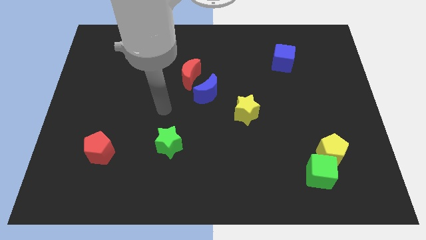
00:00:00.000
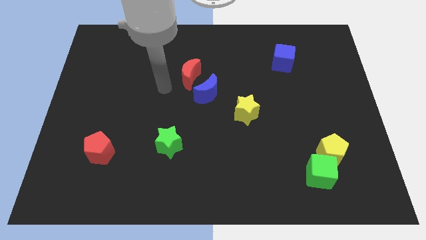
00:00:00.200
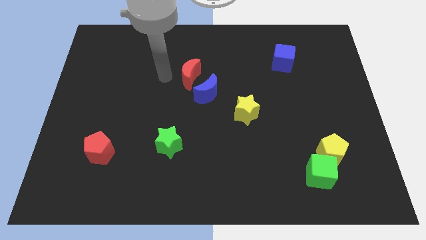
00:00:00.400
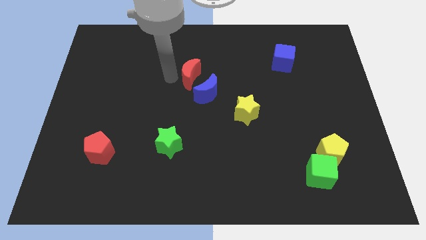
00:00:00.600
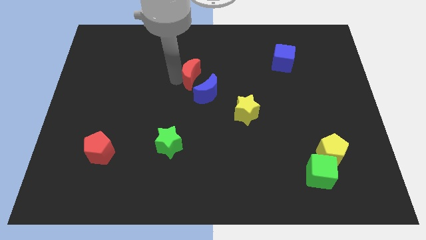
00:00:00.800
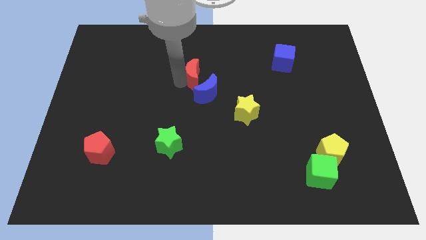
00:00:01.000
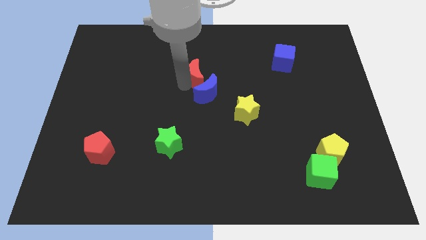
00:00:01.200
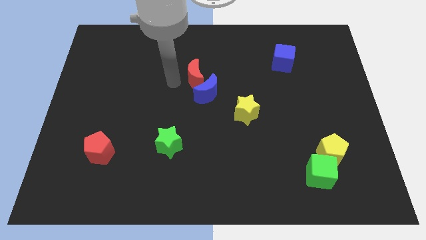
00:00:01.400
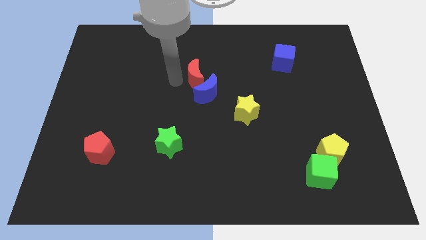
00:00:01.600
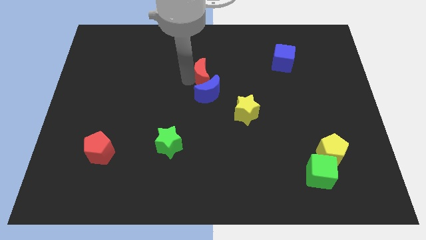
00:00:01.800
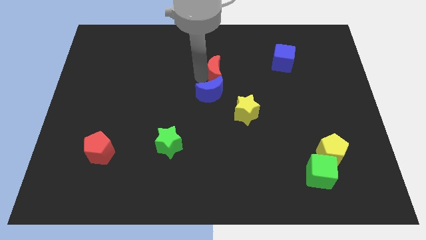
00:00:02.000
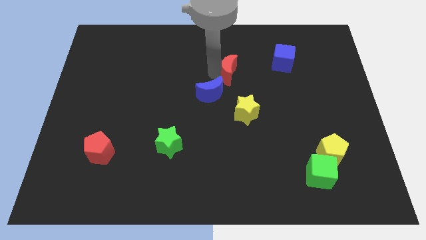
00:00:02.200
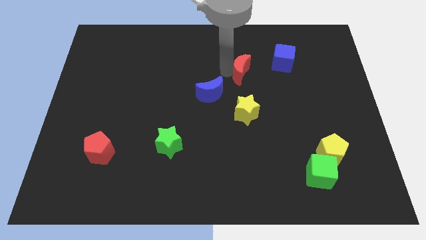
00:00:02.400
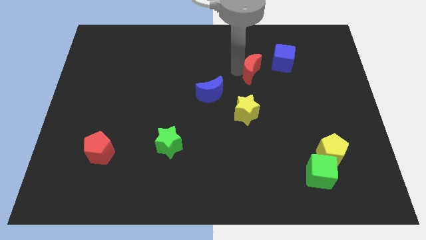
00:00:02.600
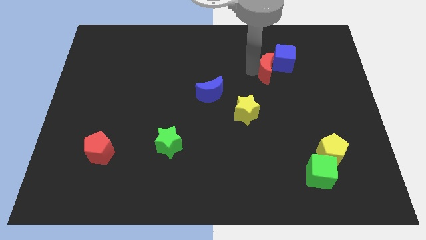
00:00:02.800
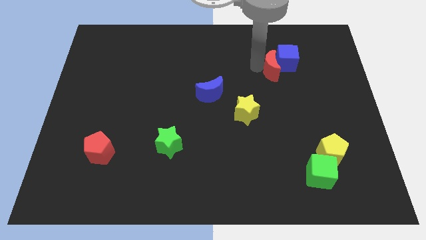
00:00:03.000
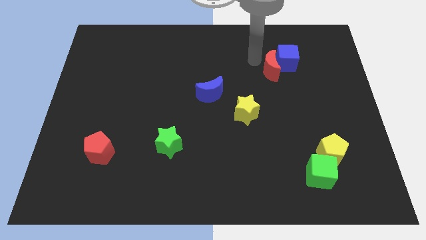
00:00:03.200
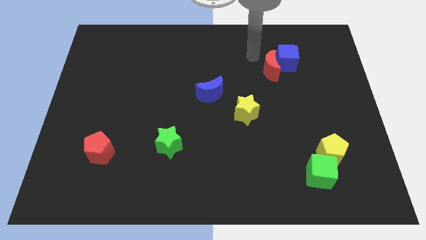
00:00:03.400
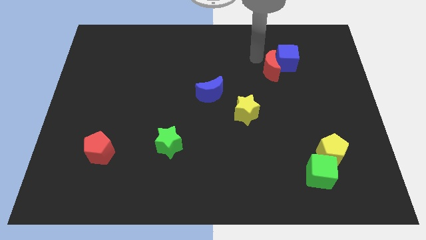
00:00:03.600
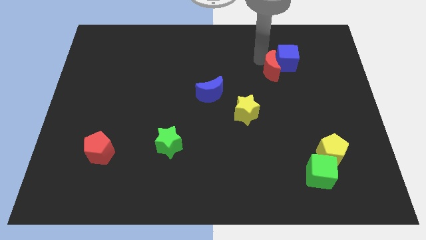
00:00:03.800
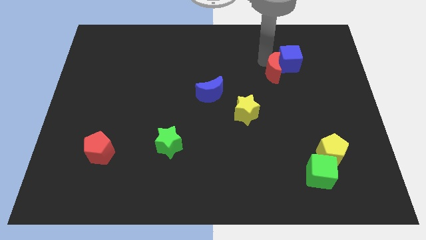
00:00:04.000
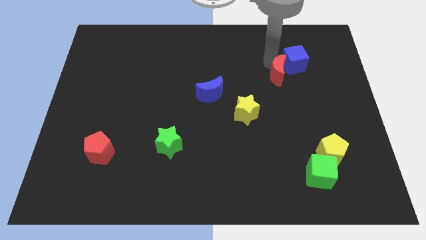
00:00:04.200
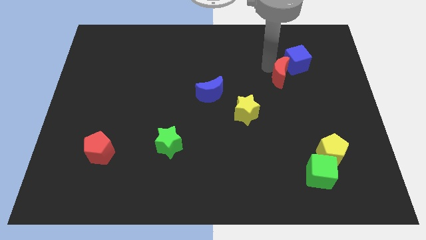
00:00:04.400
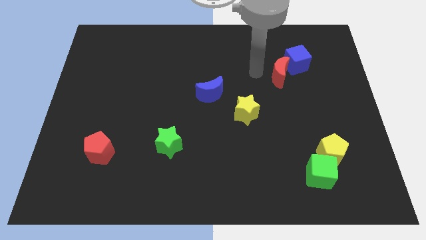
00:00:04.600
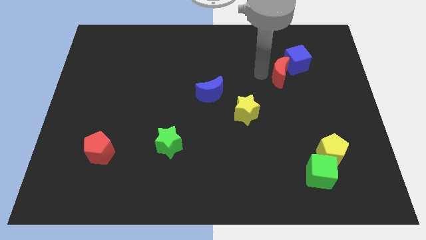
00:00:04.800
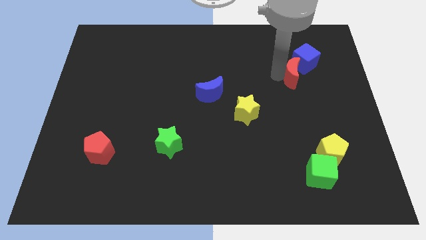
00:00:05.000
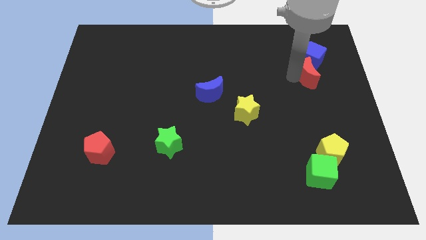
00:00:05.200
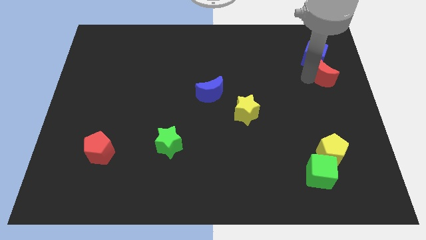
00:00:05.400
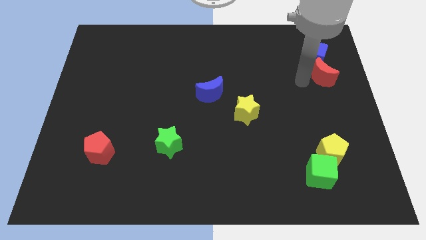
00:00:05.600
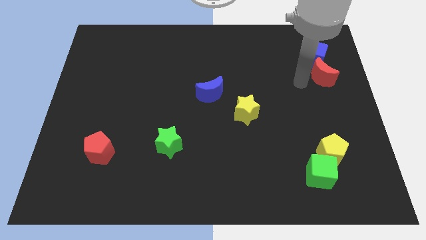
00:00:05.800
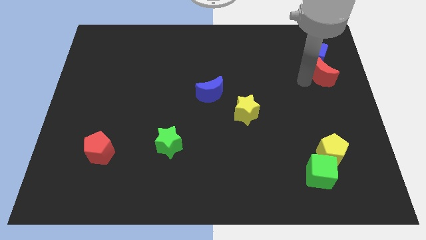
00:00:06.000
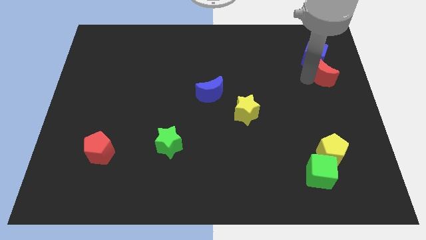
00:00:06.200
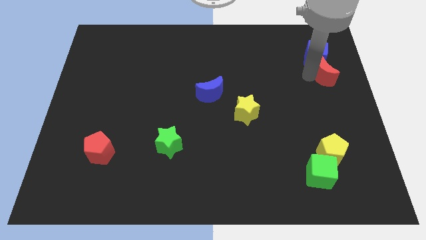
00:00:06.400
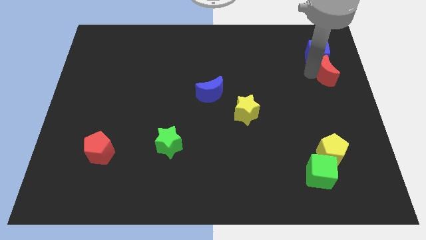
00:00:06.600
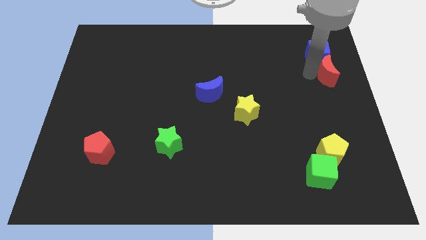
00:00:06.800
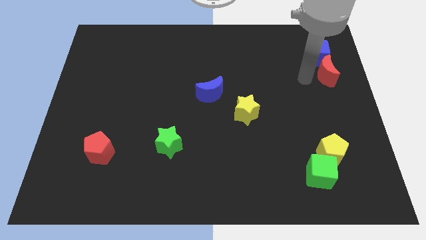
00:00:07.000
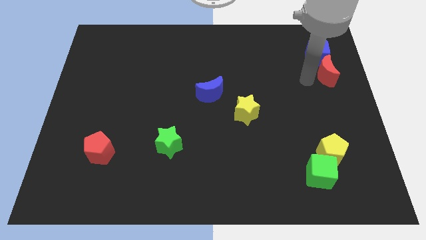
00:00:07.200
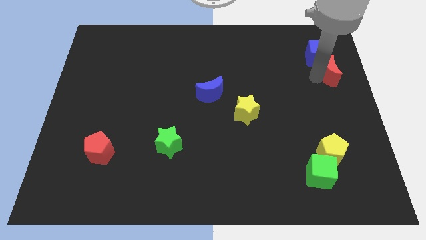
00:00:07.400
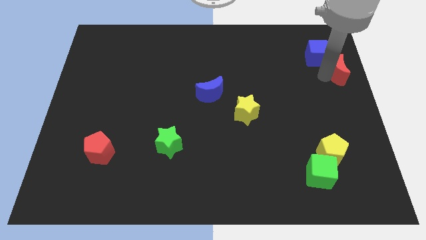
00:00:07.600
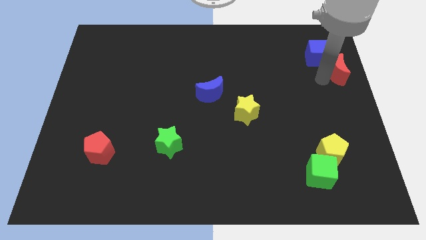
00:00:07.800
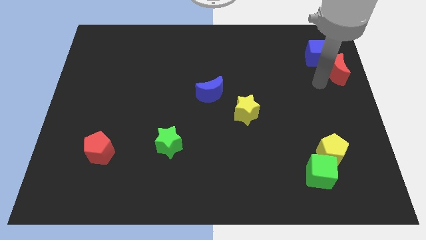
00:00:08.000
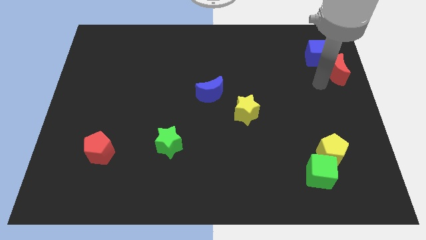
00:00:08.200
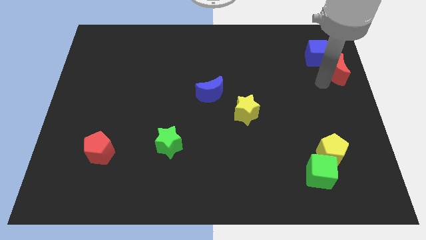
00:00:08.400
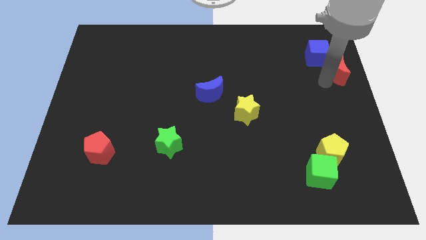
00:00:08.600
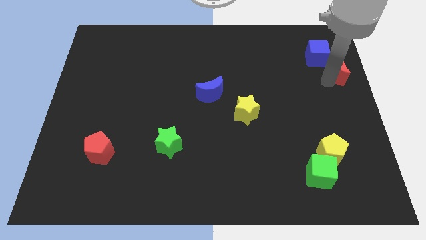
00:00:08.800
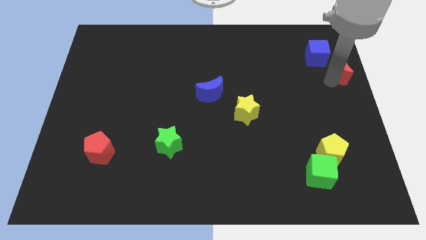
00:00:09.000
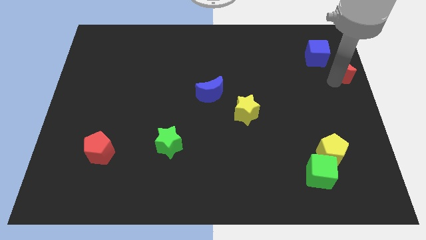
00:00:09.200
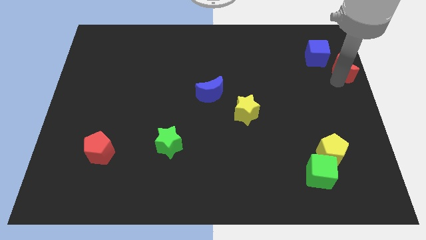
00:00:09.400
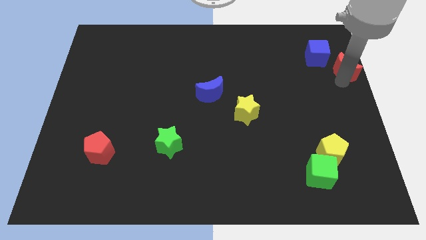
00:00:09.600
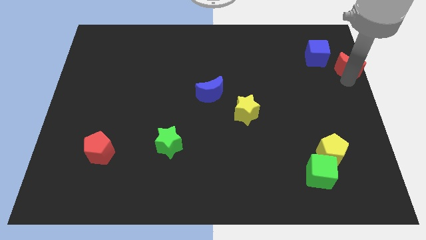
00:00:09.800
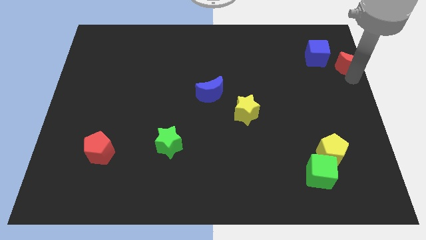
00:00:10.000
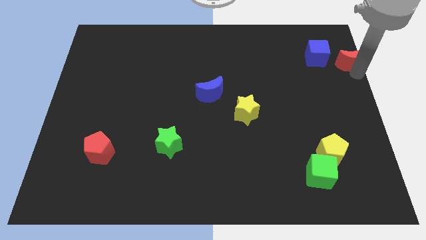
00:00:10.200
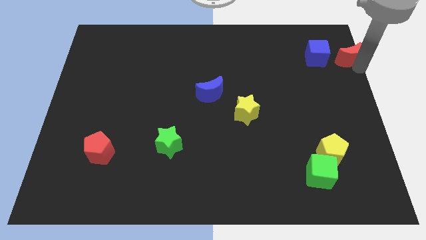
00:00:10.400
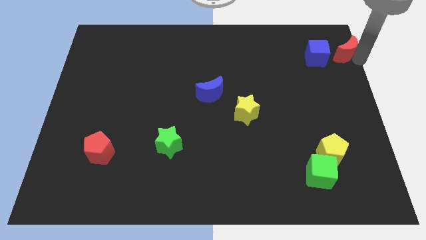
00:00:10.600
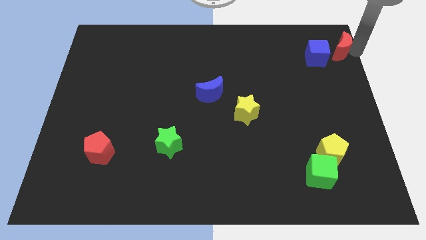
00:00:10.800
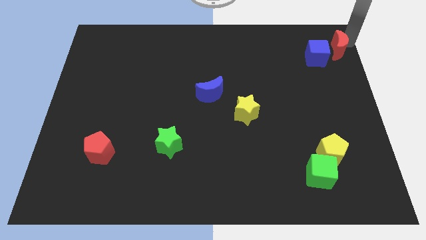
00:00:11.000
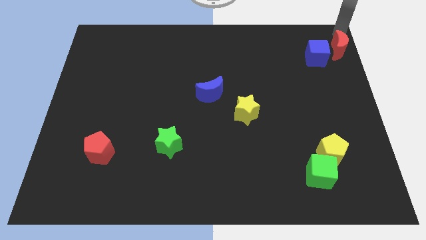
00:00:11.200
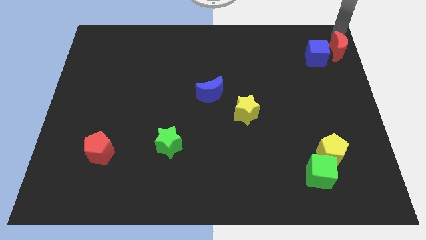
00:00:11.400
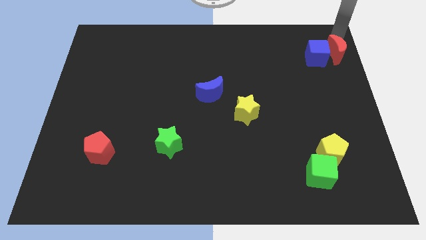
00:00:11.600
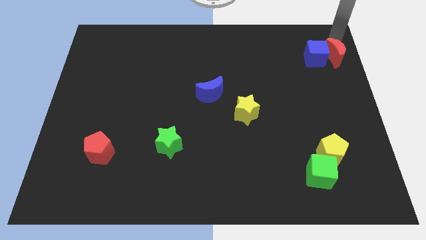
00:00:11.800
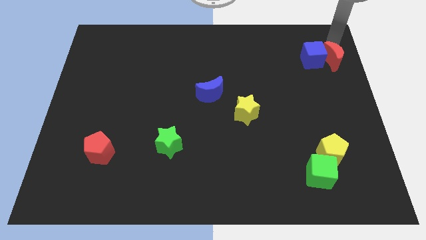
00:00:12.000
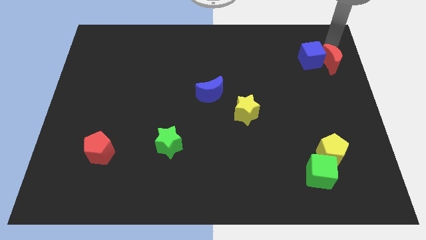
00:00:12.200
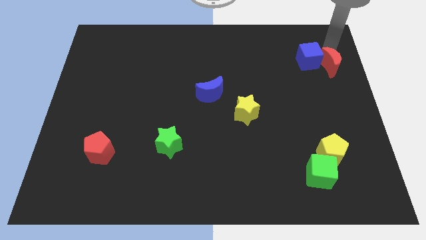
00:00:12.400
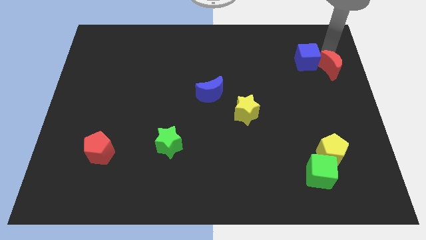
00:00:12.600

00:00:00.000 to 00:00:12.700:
move the red moon to the bottom right side of the blue cube

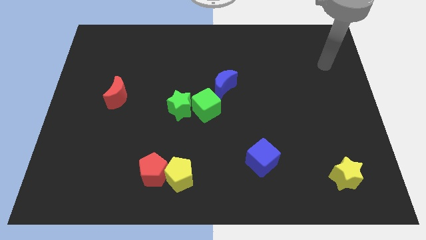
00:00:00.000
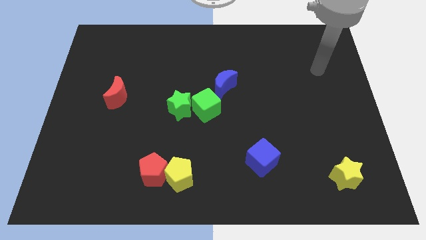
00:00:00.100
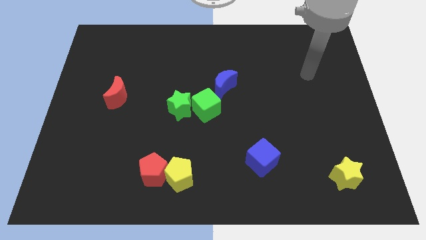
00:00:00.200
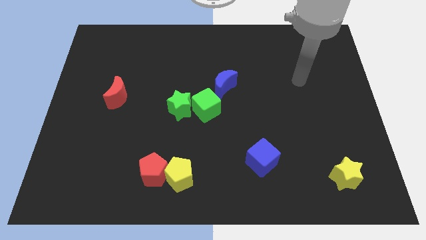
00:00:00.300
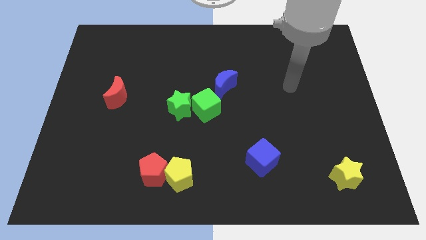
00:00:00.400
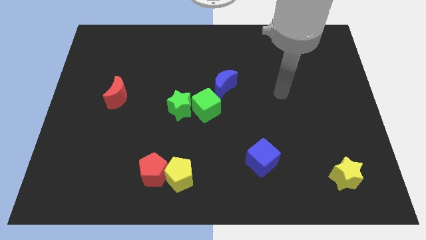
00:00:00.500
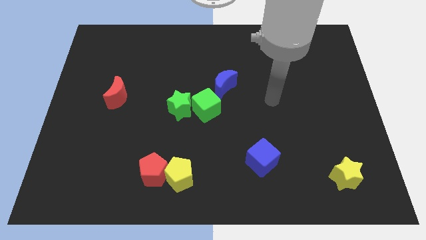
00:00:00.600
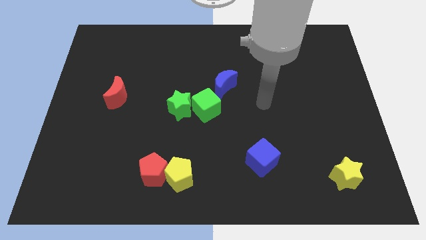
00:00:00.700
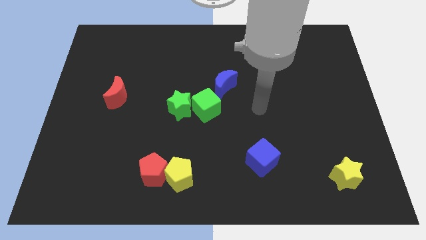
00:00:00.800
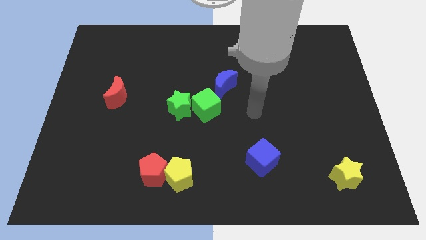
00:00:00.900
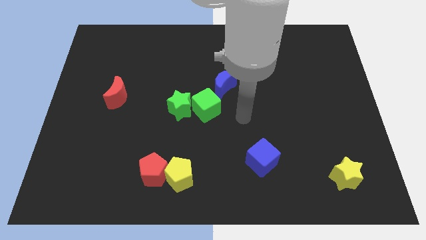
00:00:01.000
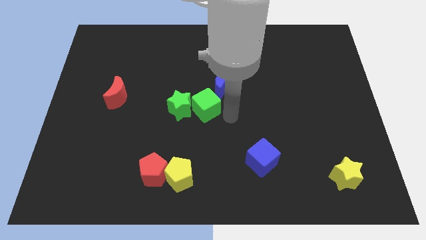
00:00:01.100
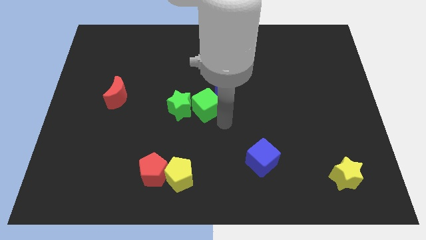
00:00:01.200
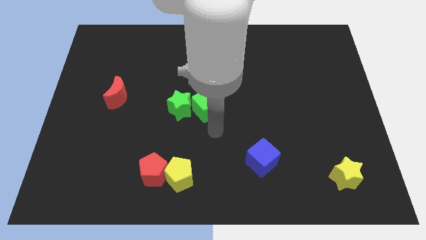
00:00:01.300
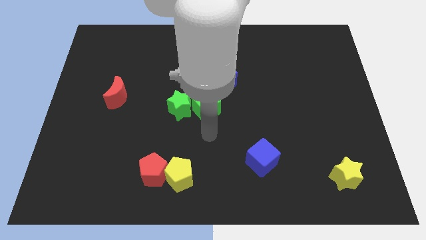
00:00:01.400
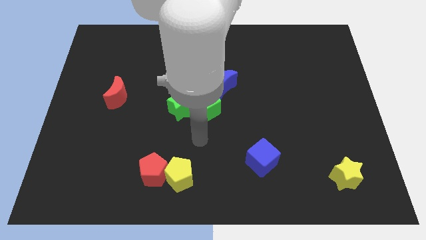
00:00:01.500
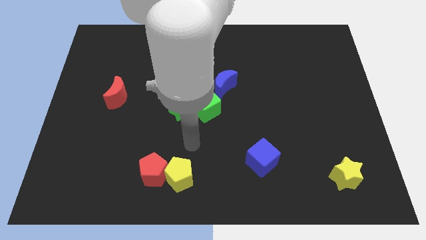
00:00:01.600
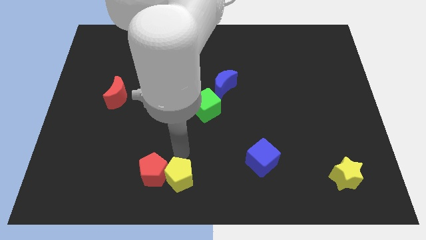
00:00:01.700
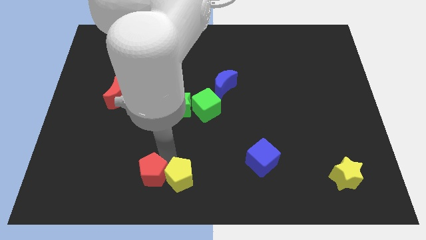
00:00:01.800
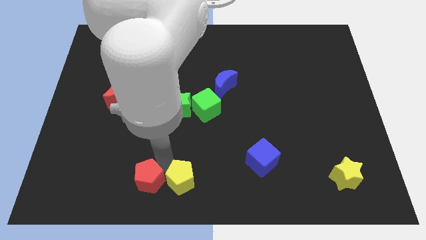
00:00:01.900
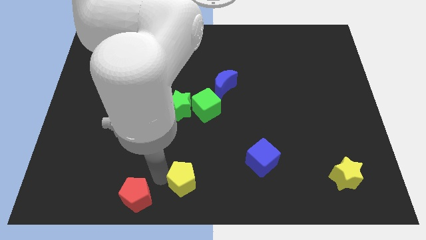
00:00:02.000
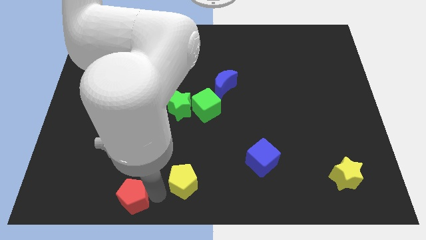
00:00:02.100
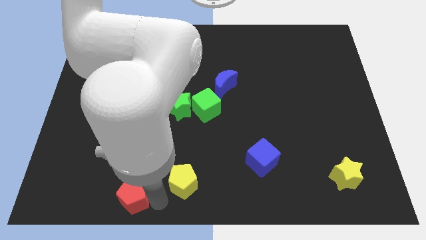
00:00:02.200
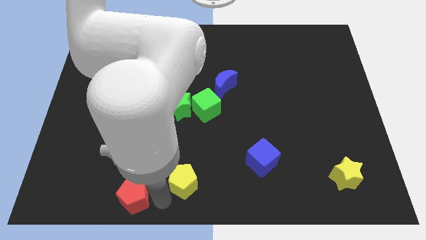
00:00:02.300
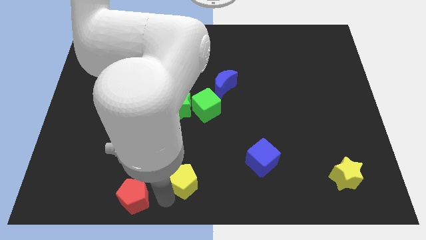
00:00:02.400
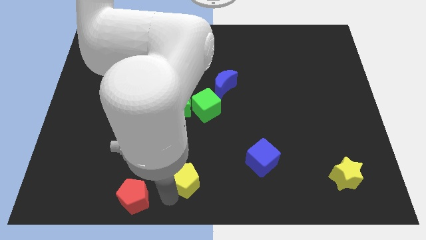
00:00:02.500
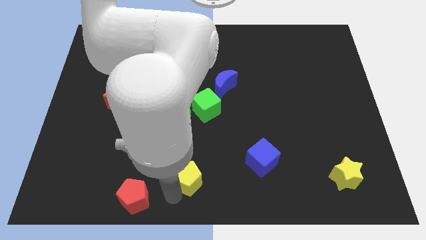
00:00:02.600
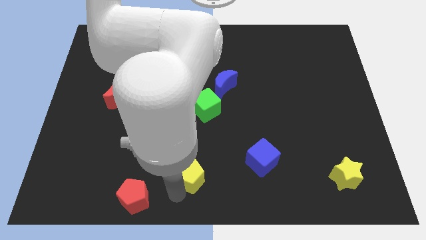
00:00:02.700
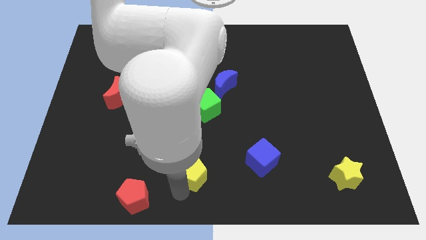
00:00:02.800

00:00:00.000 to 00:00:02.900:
move the yellow pentagon to the left of the blue cube
